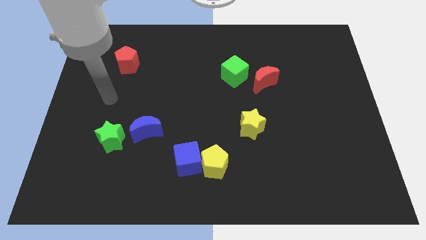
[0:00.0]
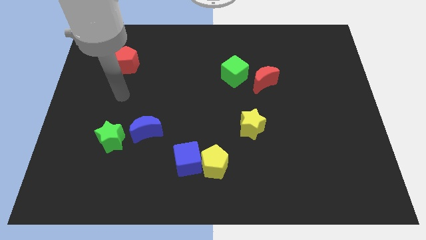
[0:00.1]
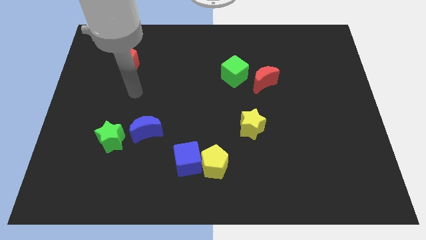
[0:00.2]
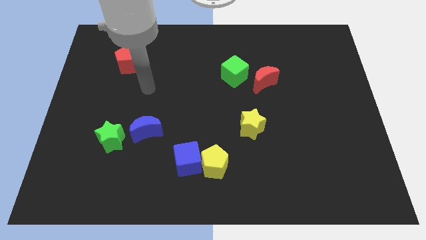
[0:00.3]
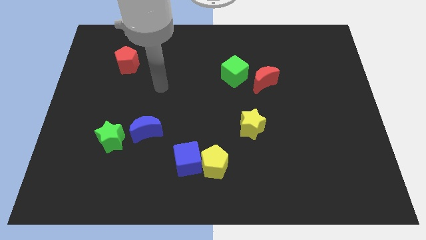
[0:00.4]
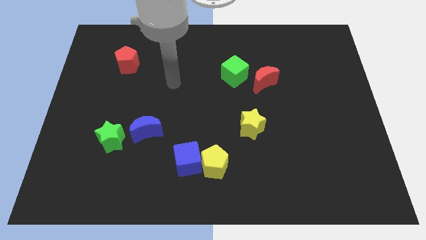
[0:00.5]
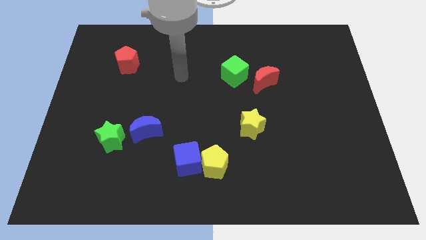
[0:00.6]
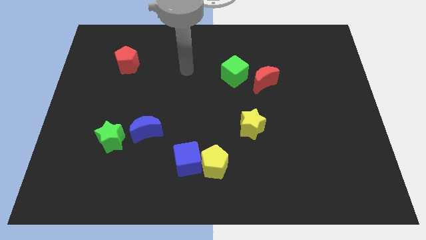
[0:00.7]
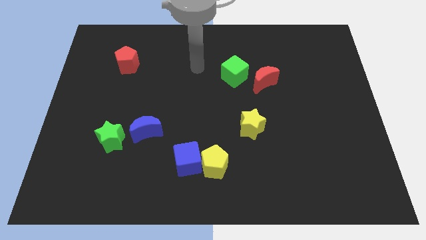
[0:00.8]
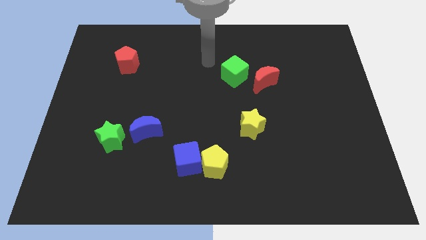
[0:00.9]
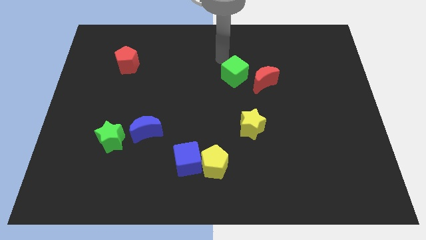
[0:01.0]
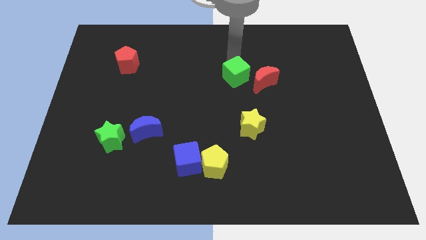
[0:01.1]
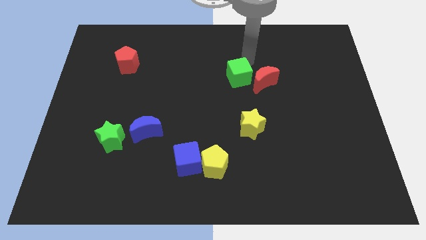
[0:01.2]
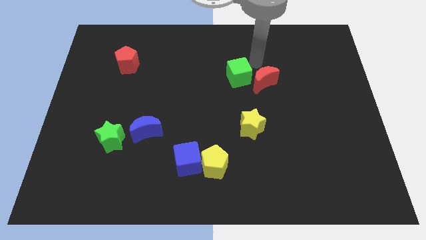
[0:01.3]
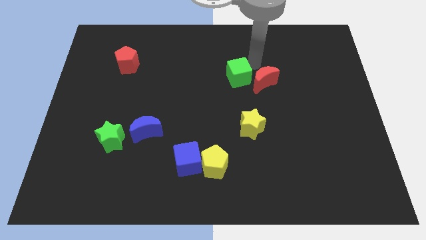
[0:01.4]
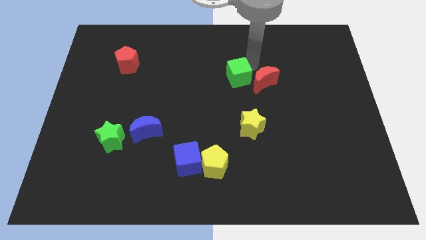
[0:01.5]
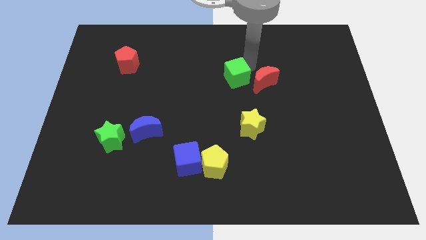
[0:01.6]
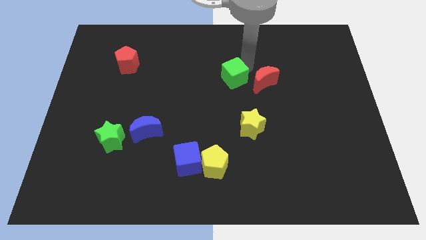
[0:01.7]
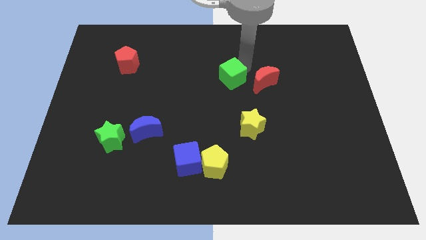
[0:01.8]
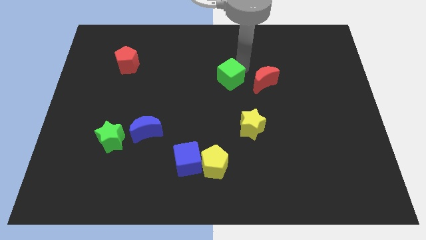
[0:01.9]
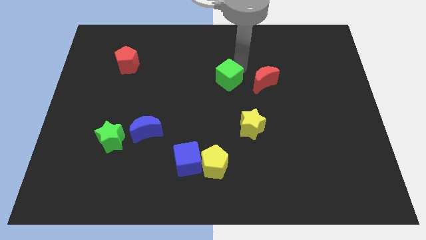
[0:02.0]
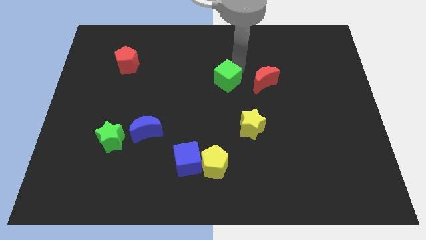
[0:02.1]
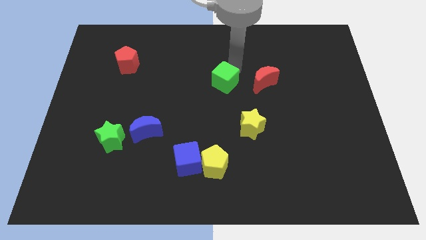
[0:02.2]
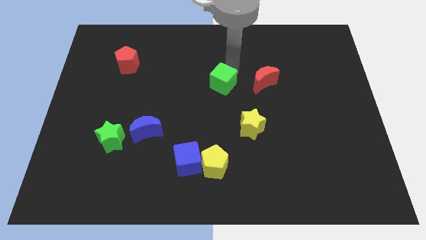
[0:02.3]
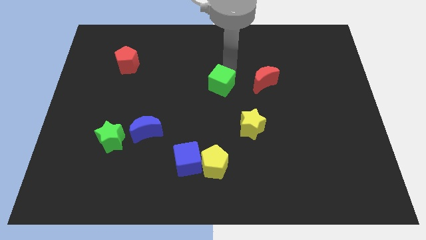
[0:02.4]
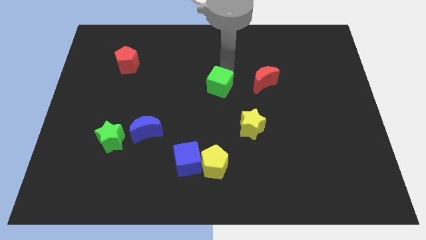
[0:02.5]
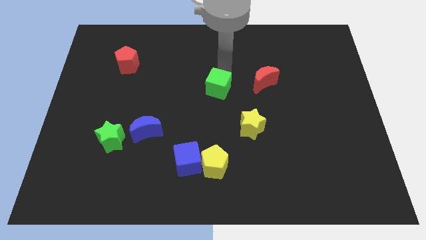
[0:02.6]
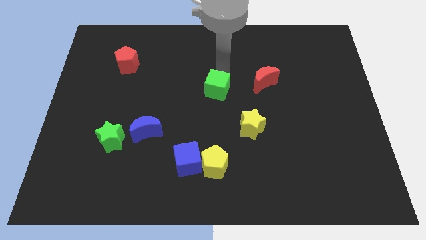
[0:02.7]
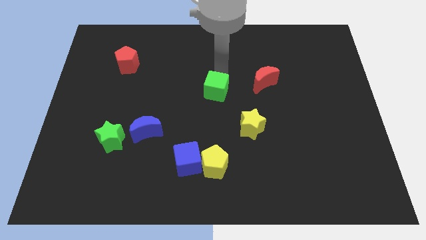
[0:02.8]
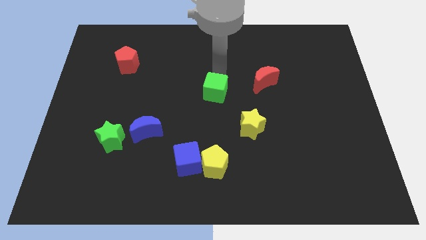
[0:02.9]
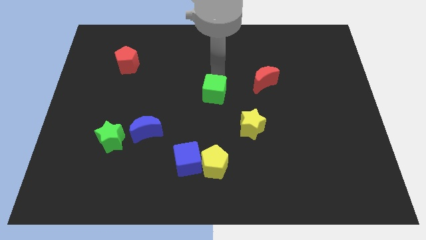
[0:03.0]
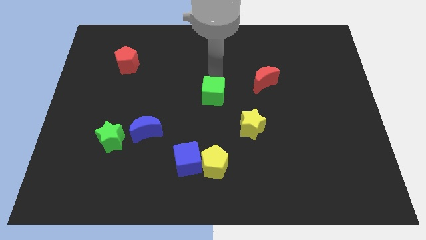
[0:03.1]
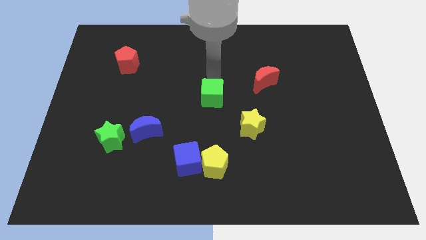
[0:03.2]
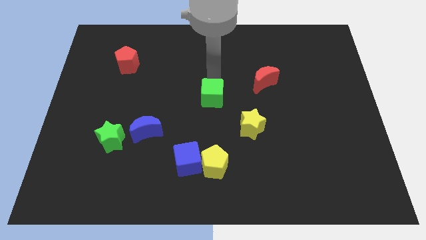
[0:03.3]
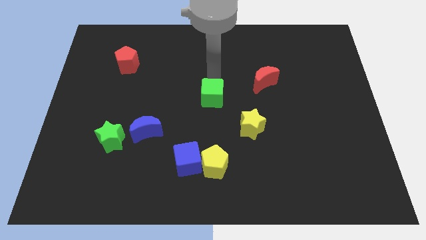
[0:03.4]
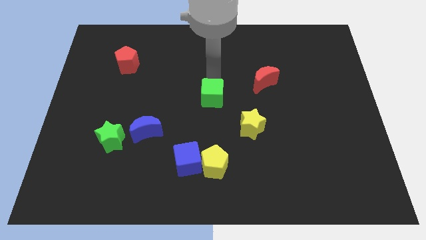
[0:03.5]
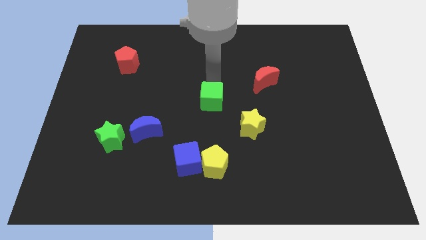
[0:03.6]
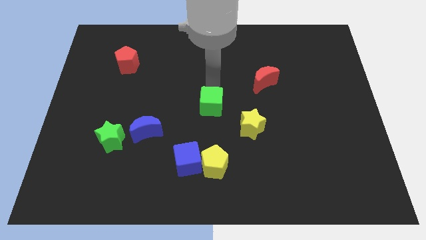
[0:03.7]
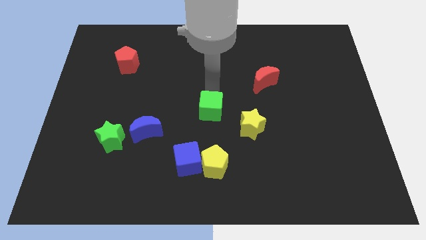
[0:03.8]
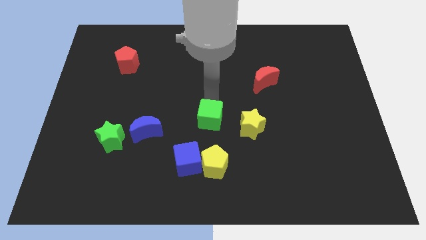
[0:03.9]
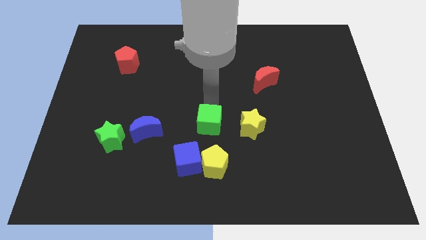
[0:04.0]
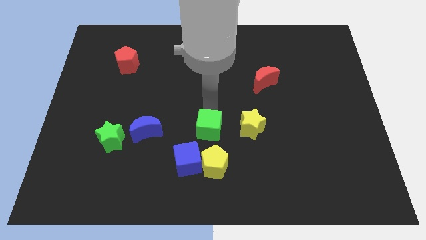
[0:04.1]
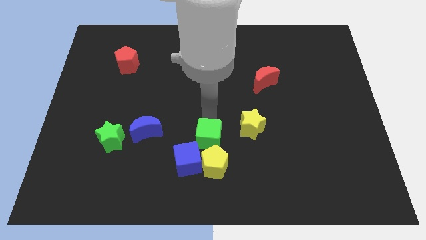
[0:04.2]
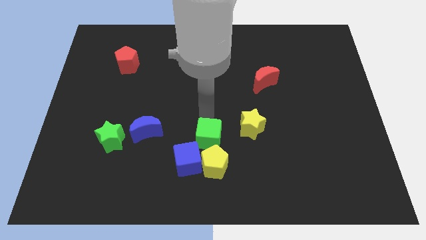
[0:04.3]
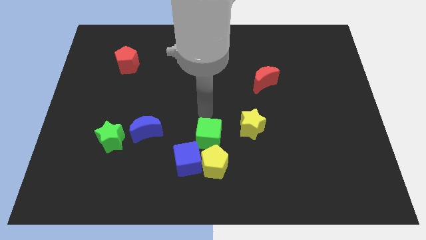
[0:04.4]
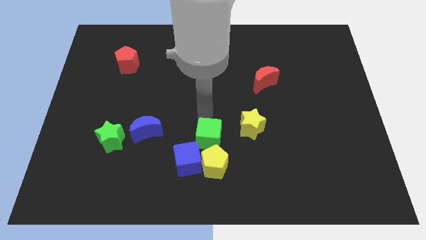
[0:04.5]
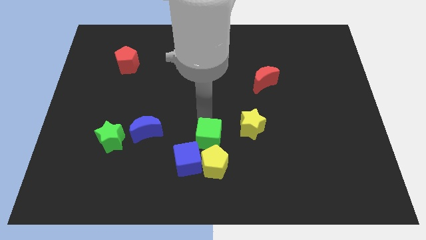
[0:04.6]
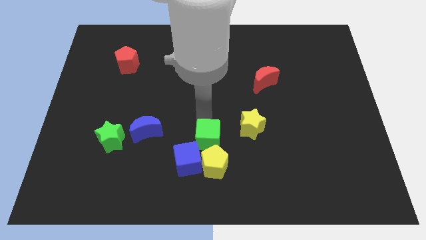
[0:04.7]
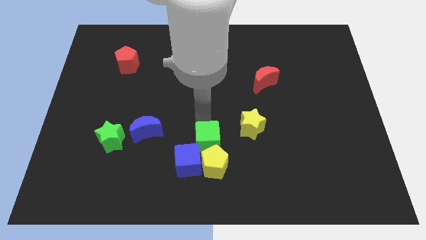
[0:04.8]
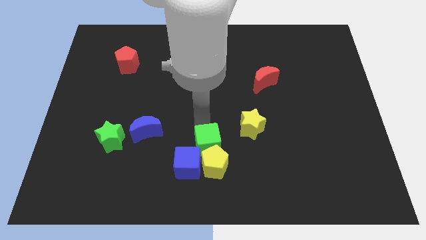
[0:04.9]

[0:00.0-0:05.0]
slide the green cube next to the yellow pentagon

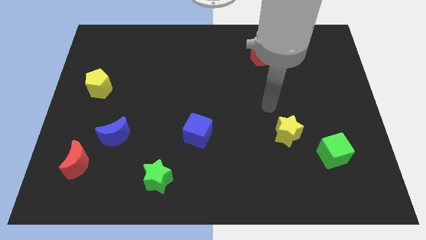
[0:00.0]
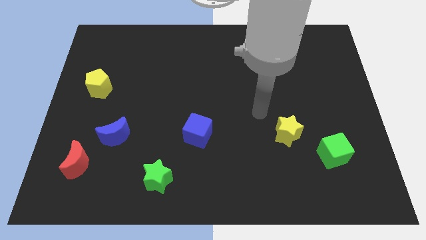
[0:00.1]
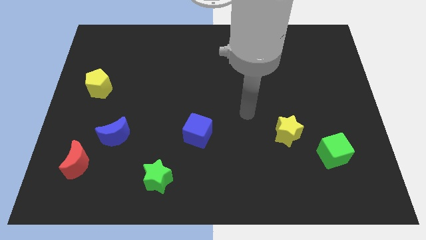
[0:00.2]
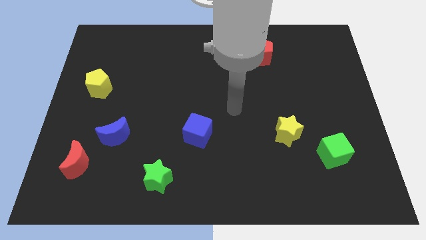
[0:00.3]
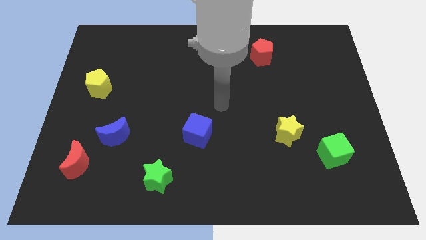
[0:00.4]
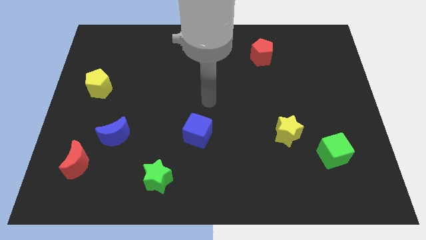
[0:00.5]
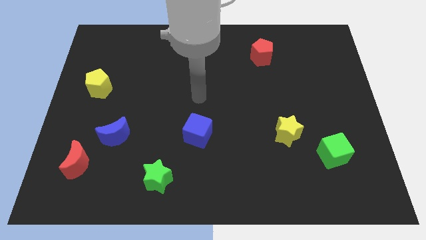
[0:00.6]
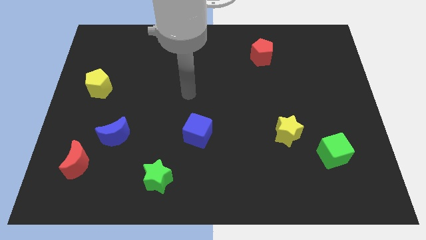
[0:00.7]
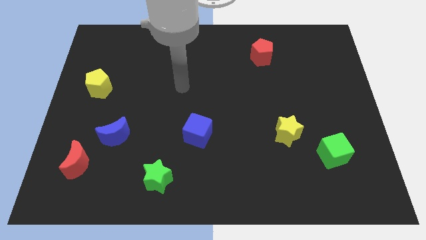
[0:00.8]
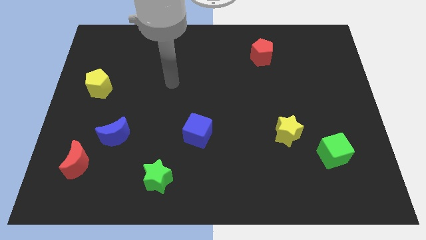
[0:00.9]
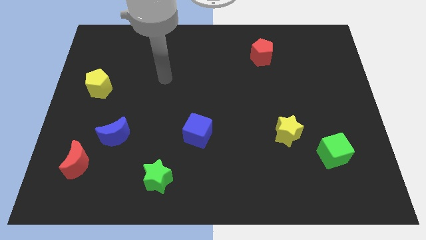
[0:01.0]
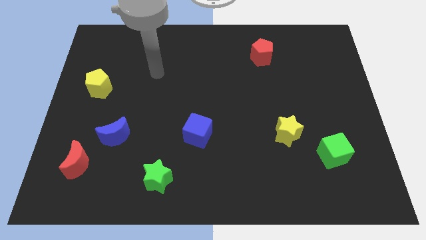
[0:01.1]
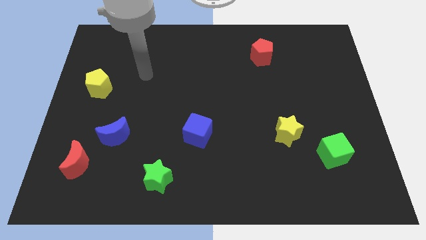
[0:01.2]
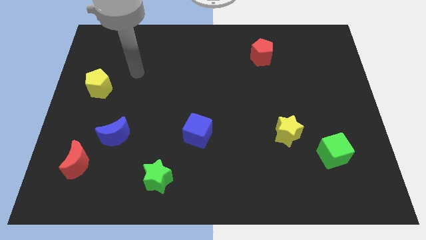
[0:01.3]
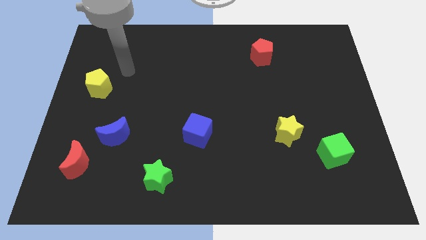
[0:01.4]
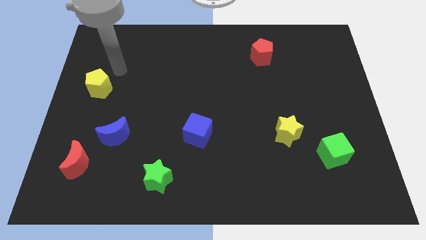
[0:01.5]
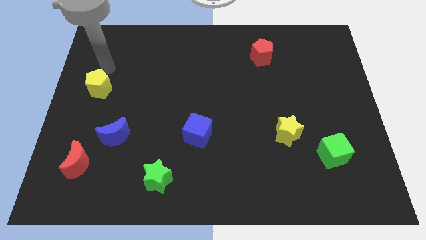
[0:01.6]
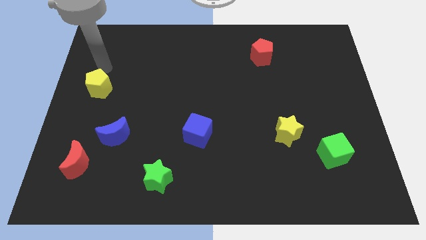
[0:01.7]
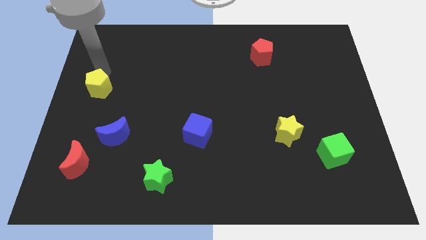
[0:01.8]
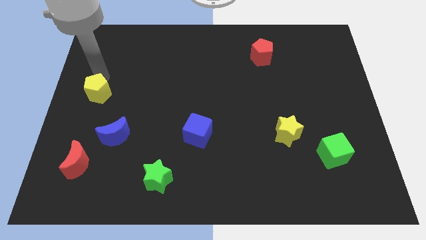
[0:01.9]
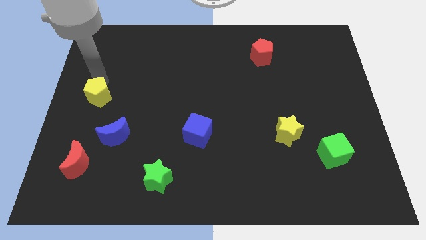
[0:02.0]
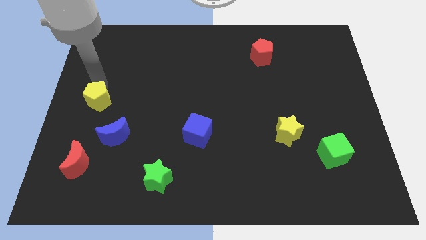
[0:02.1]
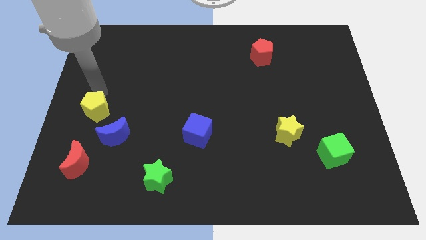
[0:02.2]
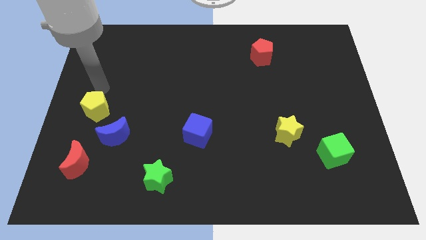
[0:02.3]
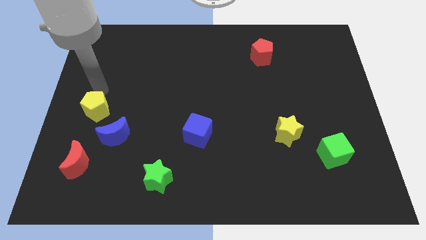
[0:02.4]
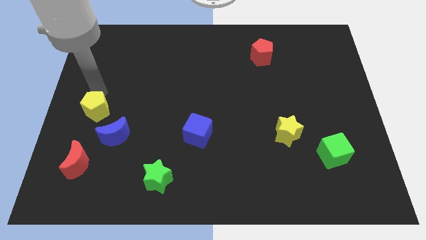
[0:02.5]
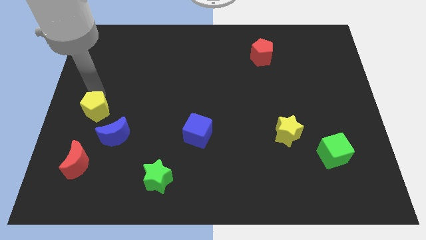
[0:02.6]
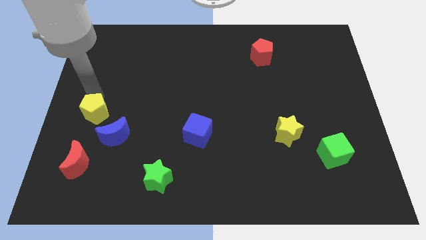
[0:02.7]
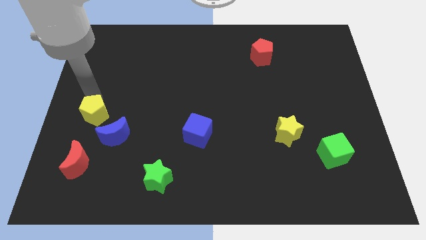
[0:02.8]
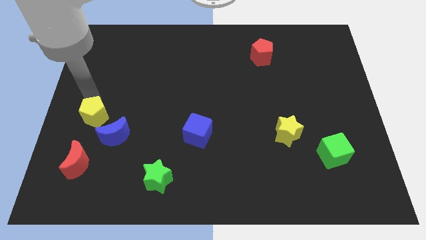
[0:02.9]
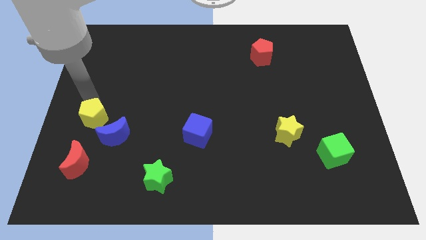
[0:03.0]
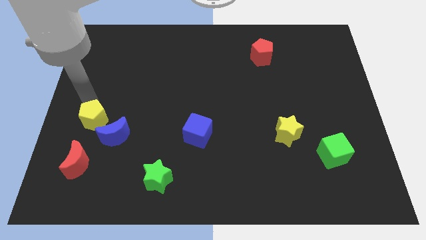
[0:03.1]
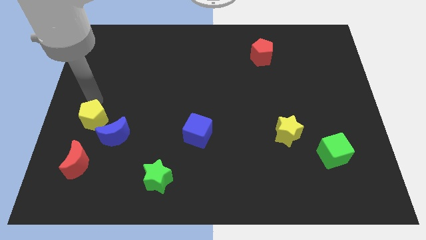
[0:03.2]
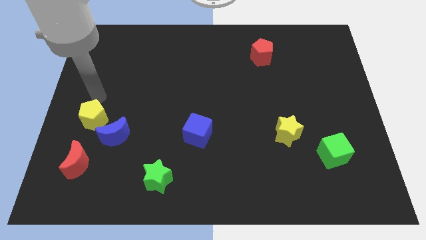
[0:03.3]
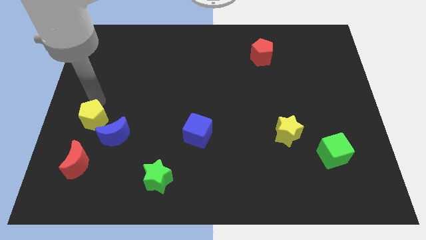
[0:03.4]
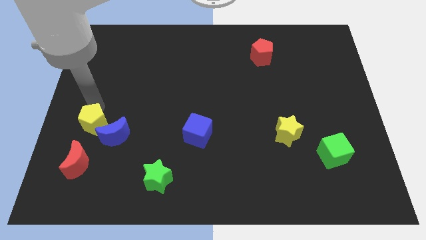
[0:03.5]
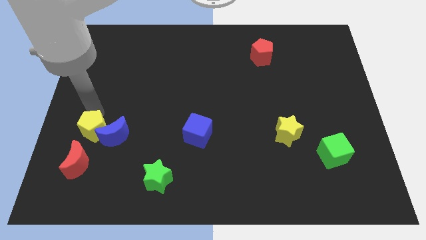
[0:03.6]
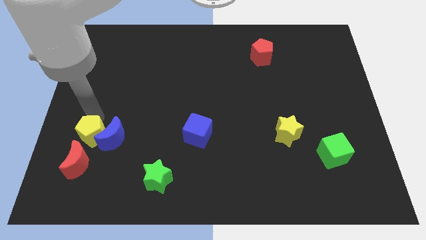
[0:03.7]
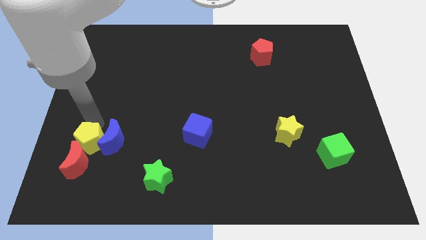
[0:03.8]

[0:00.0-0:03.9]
move the yellow pentagon towards the red moon
